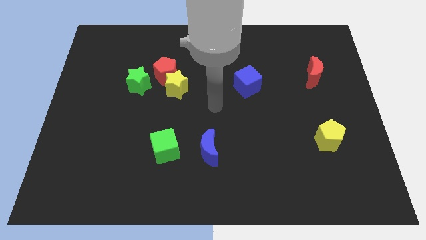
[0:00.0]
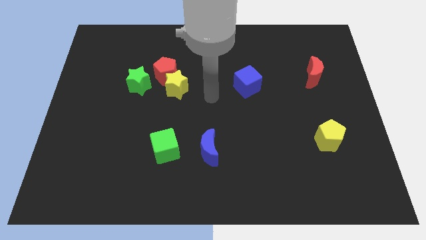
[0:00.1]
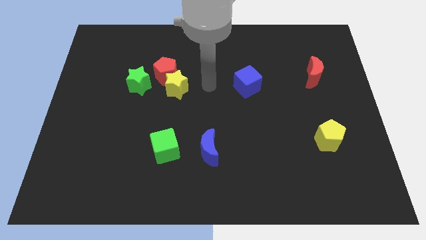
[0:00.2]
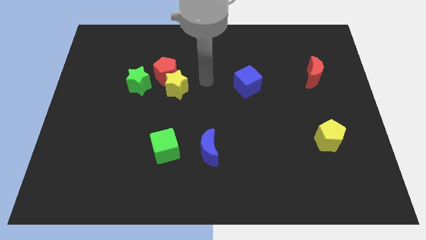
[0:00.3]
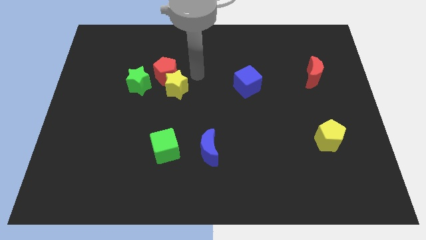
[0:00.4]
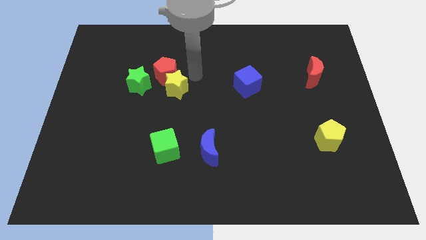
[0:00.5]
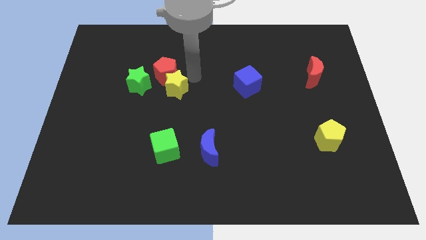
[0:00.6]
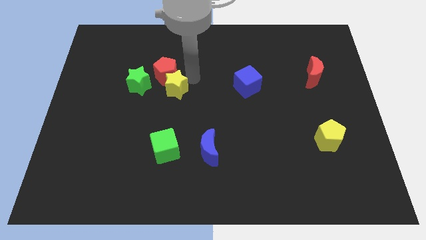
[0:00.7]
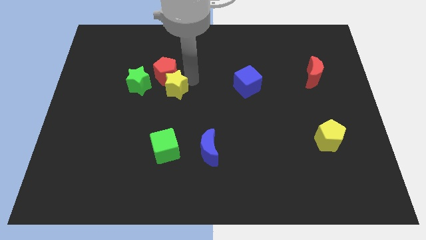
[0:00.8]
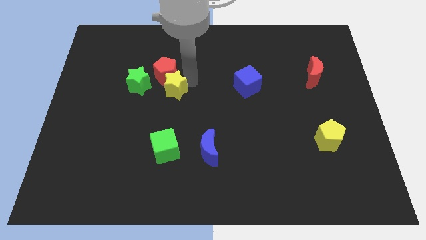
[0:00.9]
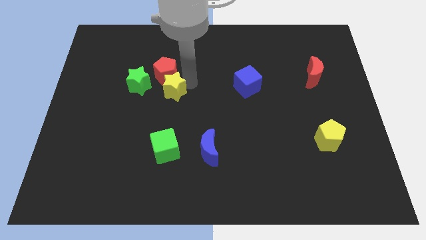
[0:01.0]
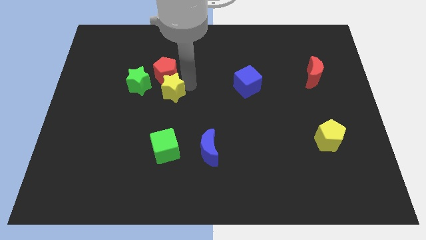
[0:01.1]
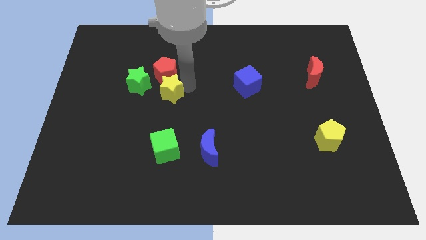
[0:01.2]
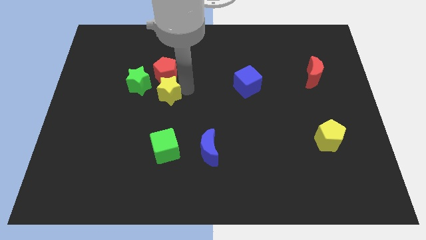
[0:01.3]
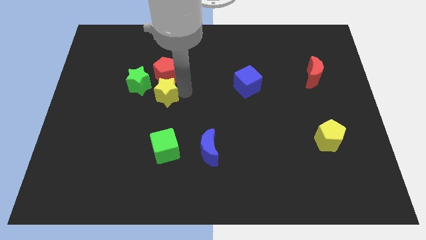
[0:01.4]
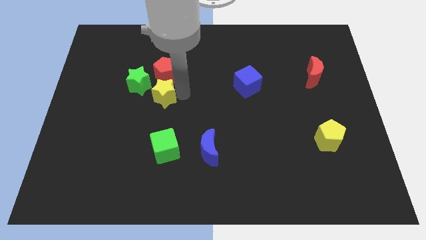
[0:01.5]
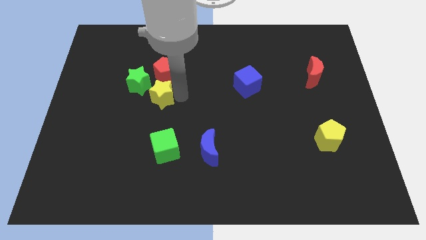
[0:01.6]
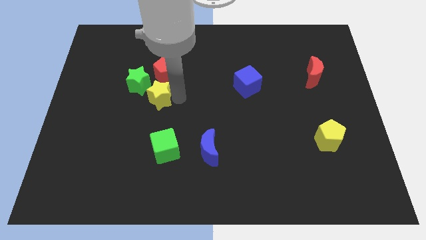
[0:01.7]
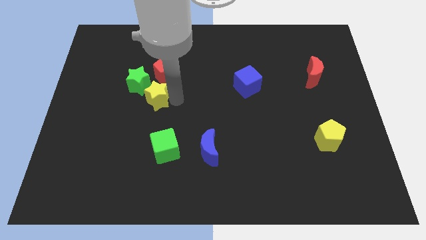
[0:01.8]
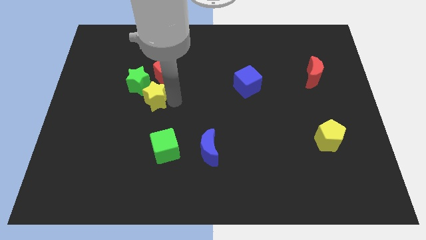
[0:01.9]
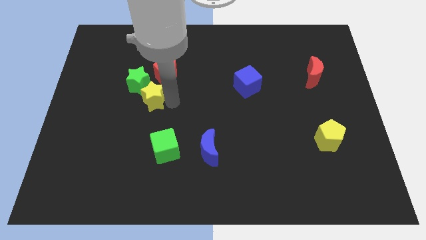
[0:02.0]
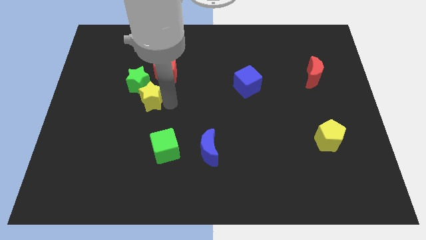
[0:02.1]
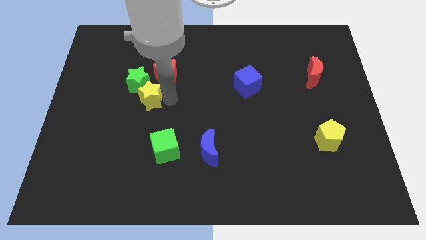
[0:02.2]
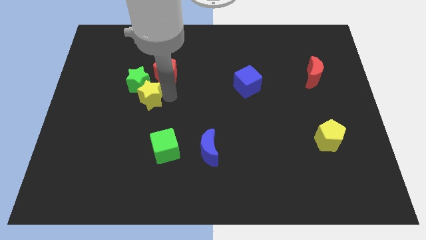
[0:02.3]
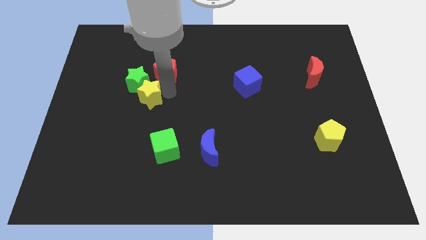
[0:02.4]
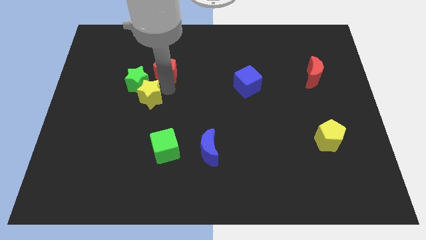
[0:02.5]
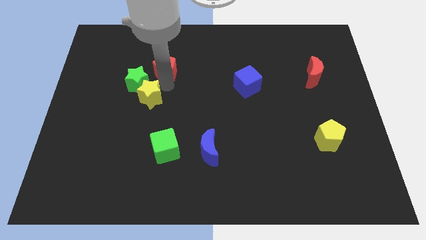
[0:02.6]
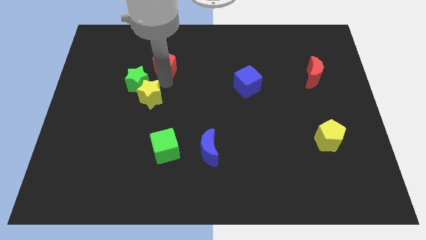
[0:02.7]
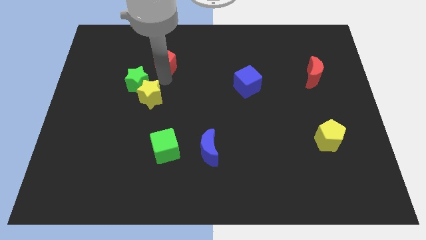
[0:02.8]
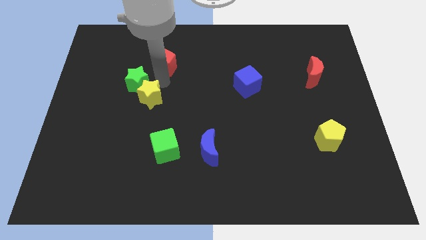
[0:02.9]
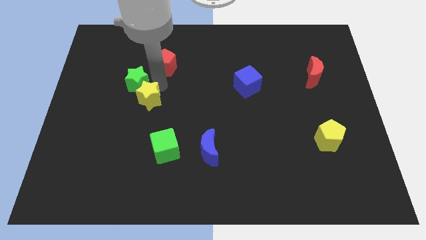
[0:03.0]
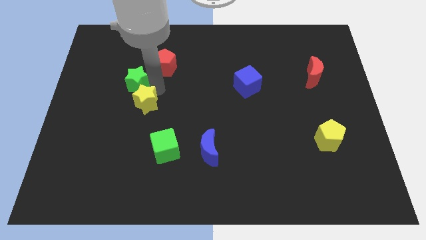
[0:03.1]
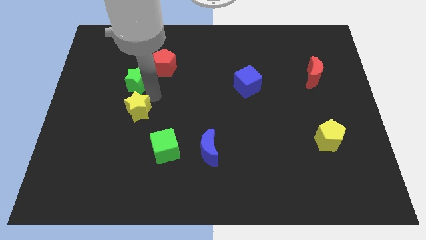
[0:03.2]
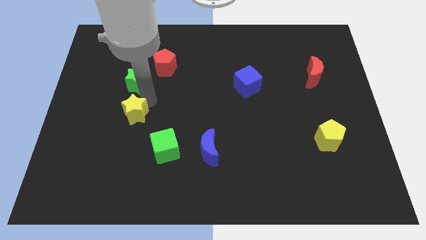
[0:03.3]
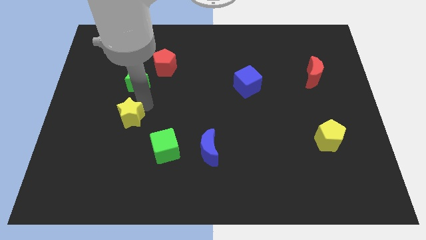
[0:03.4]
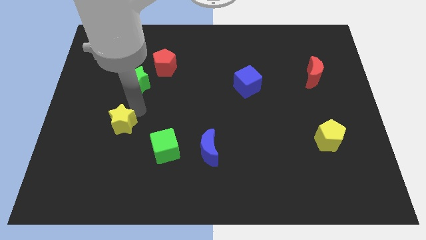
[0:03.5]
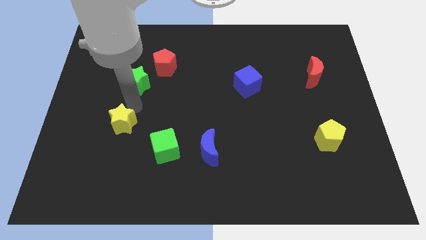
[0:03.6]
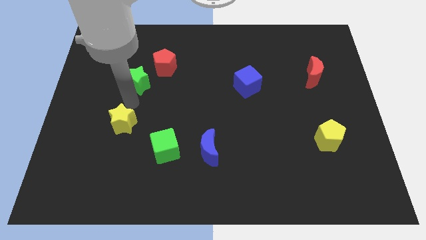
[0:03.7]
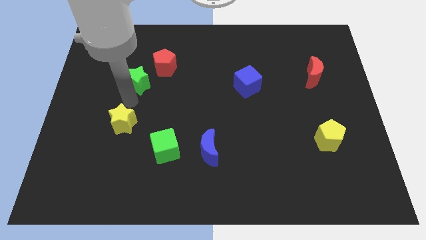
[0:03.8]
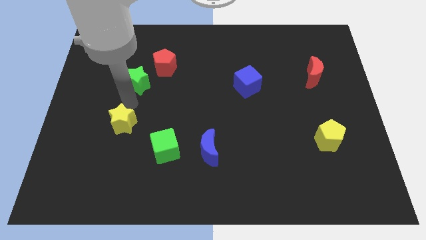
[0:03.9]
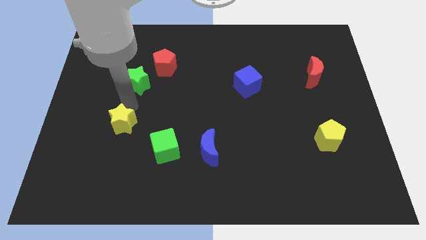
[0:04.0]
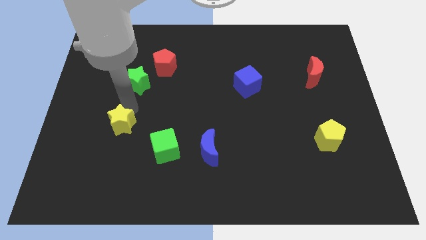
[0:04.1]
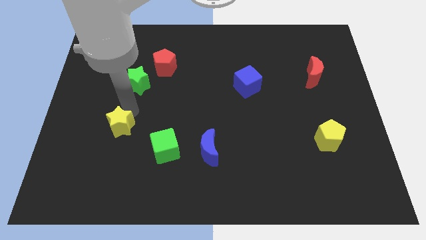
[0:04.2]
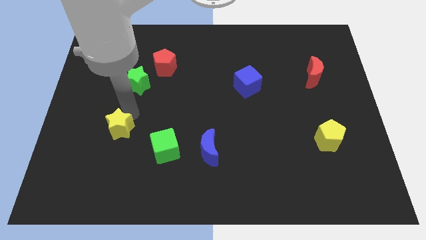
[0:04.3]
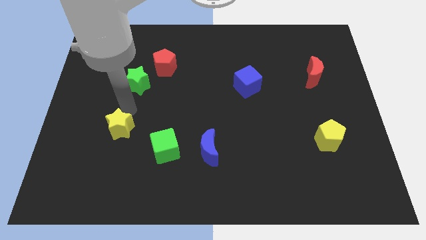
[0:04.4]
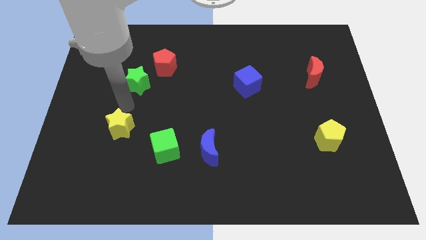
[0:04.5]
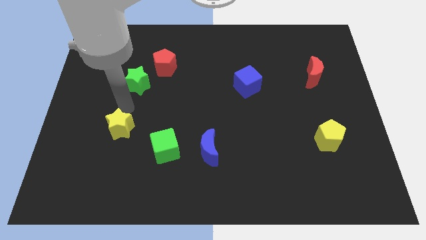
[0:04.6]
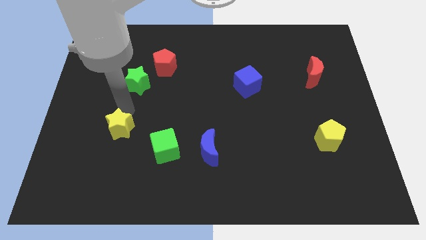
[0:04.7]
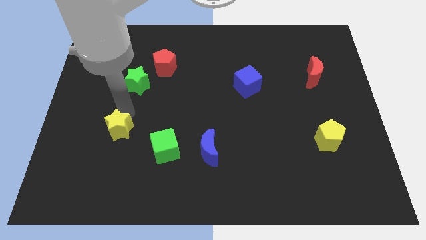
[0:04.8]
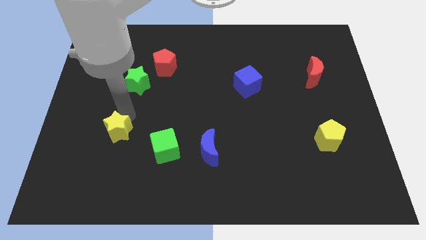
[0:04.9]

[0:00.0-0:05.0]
move the yellow star to the left of the green cube

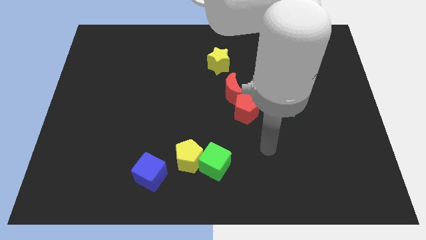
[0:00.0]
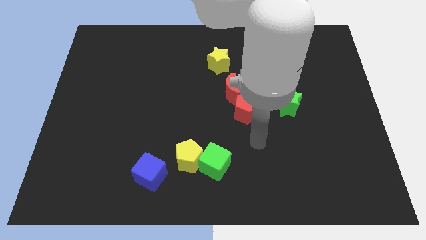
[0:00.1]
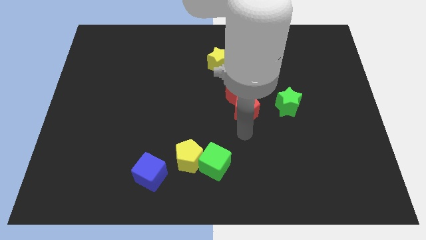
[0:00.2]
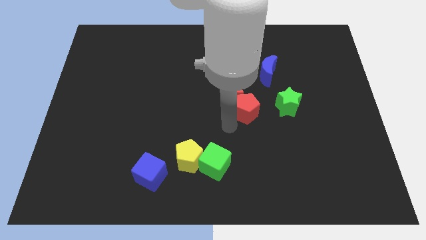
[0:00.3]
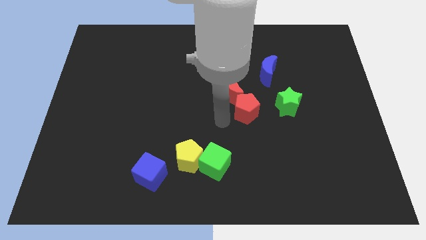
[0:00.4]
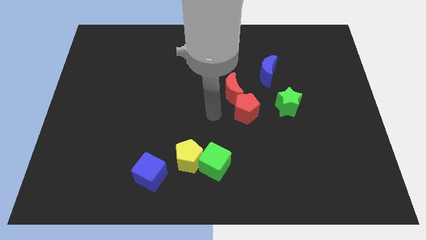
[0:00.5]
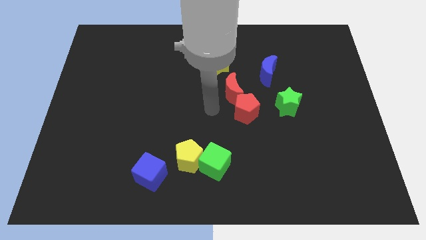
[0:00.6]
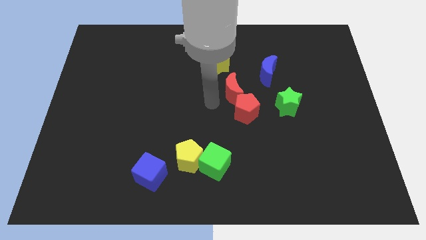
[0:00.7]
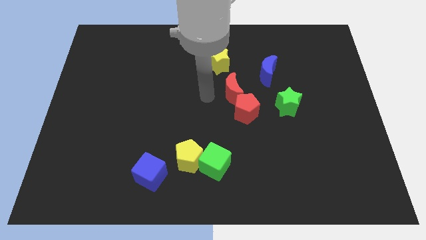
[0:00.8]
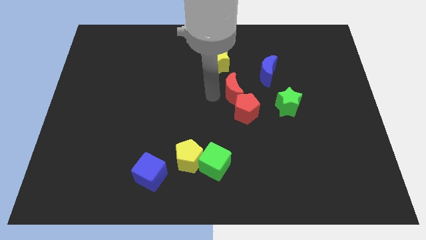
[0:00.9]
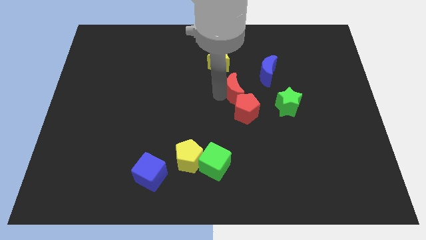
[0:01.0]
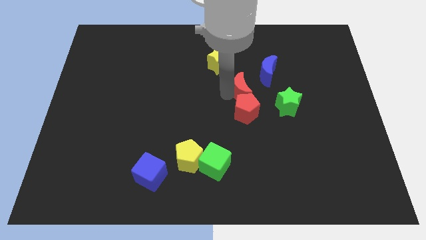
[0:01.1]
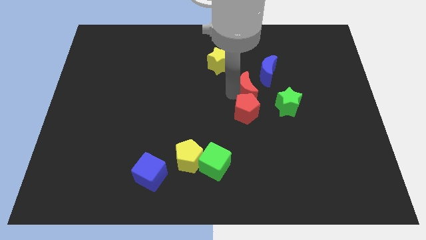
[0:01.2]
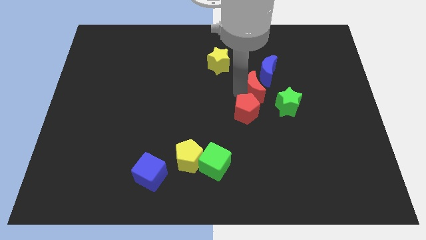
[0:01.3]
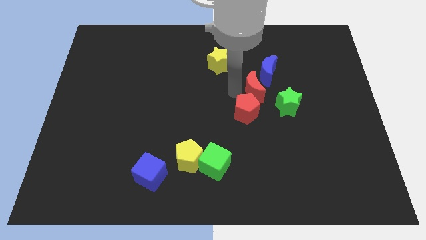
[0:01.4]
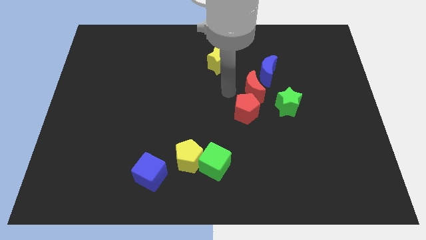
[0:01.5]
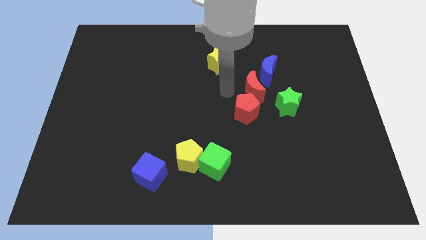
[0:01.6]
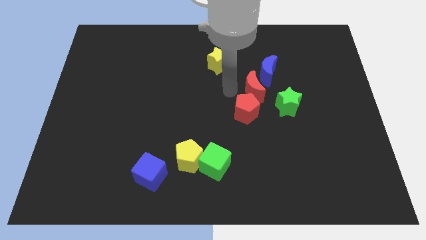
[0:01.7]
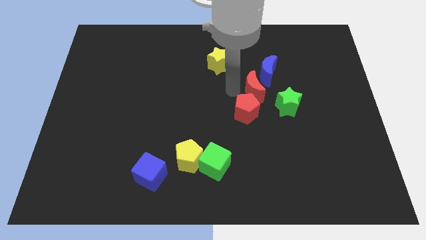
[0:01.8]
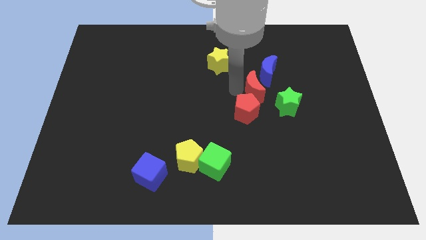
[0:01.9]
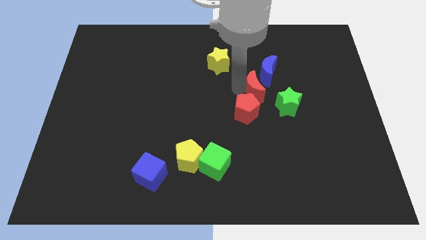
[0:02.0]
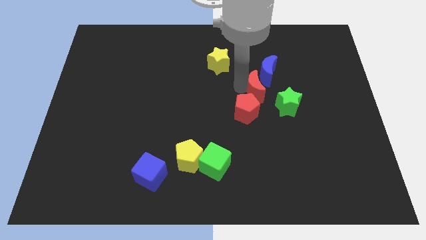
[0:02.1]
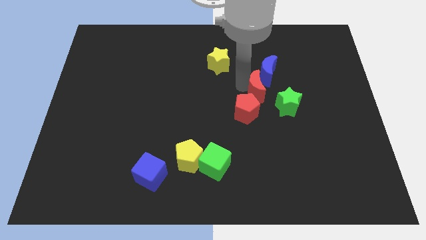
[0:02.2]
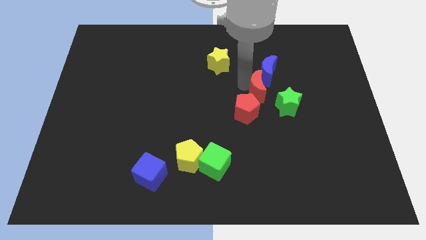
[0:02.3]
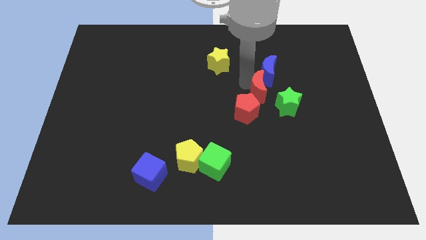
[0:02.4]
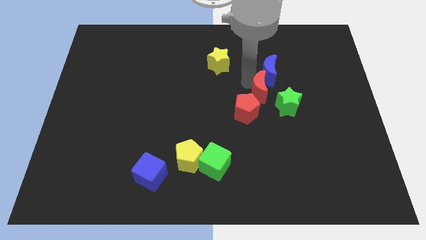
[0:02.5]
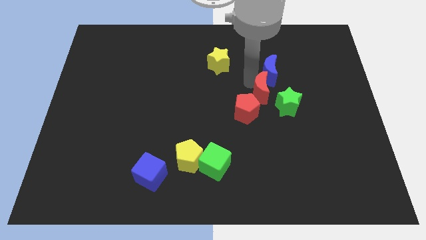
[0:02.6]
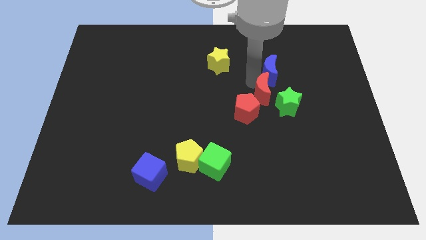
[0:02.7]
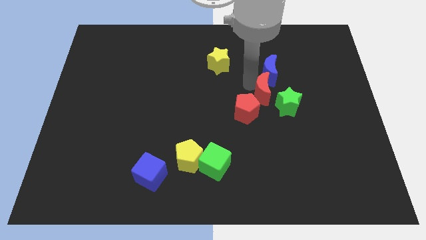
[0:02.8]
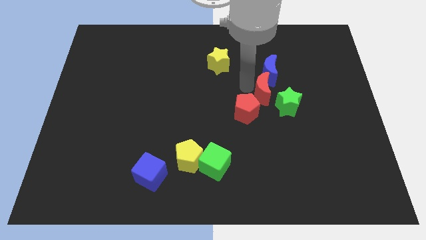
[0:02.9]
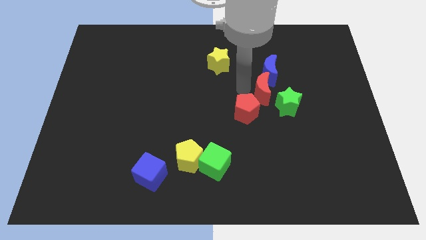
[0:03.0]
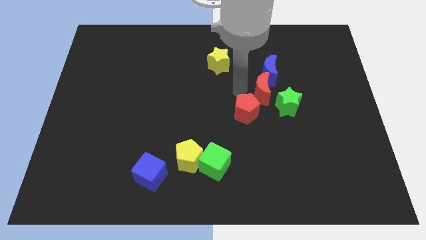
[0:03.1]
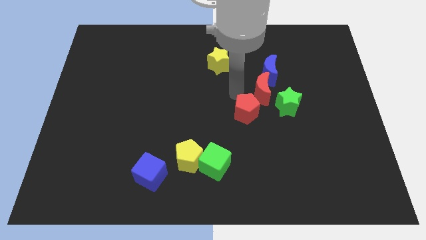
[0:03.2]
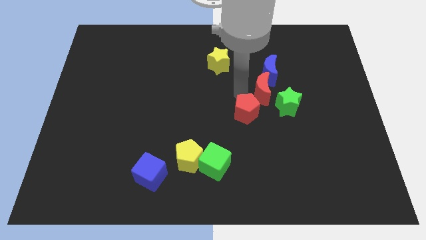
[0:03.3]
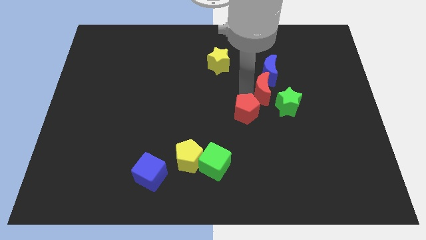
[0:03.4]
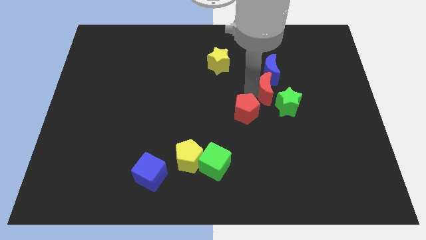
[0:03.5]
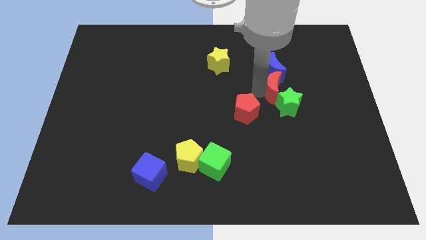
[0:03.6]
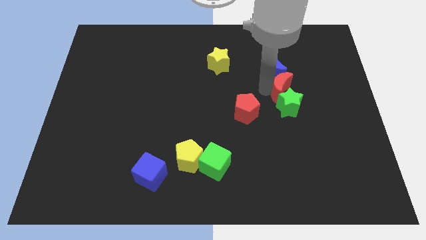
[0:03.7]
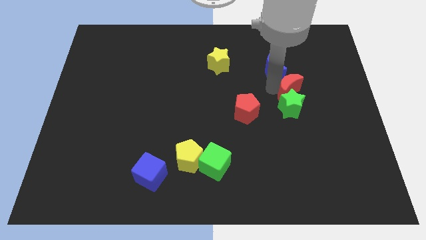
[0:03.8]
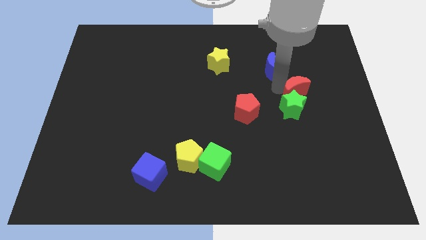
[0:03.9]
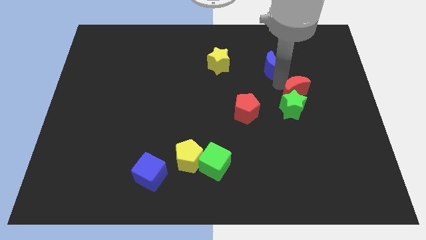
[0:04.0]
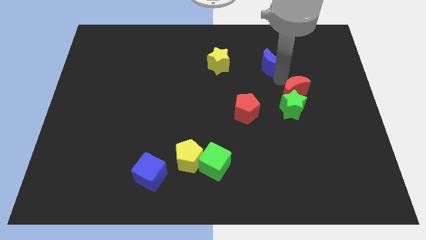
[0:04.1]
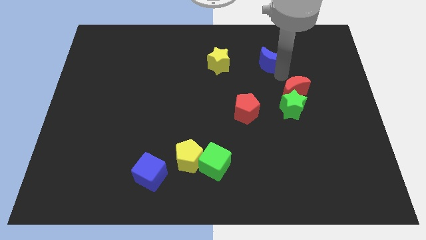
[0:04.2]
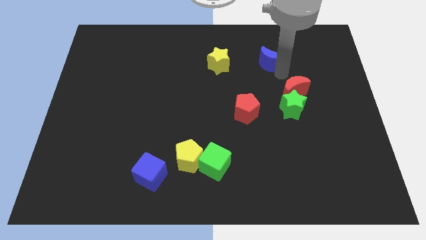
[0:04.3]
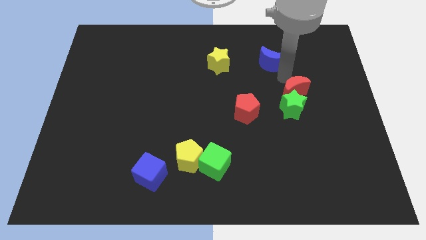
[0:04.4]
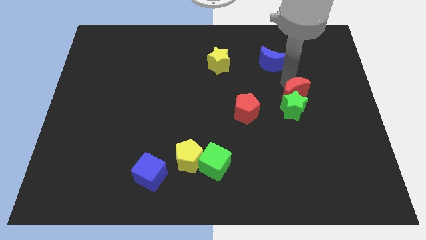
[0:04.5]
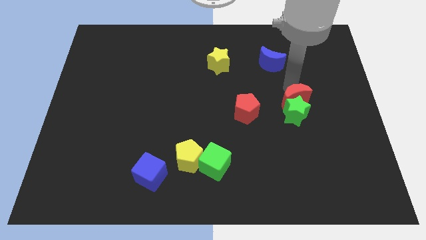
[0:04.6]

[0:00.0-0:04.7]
put the red moon to the right of the red pentagon
